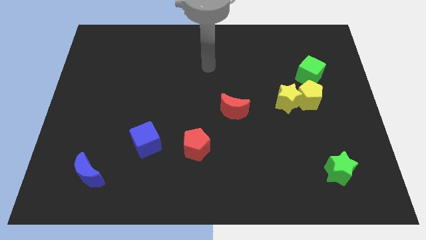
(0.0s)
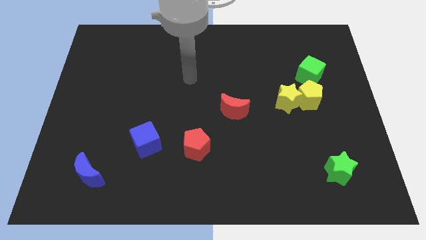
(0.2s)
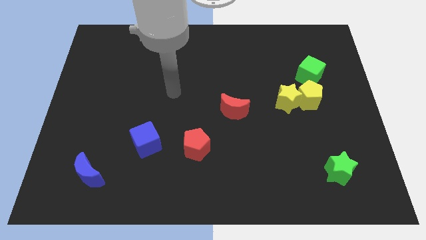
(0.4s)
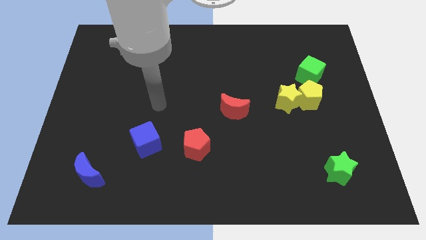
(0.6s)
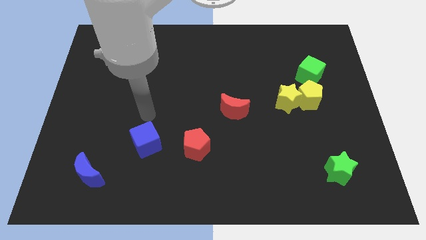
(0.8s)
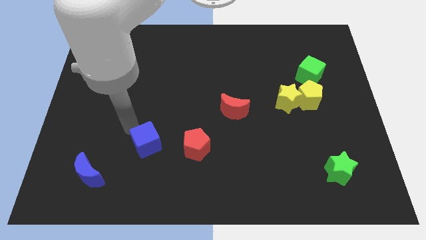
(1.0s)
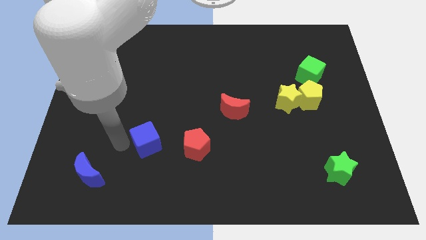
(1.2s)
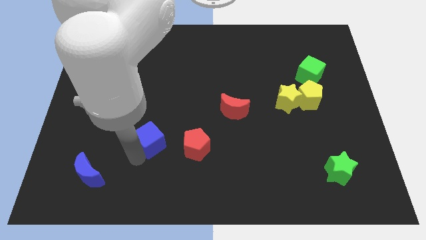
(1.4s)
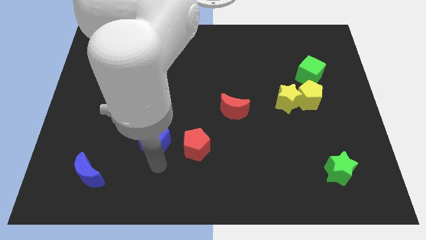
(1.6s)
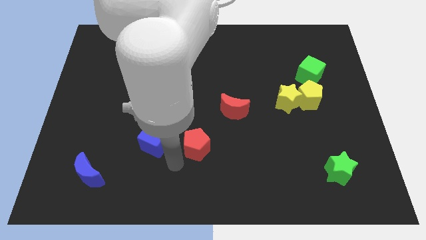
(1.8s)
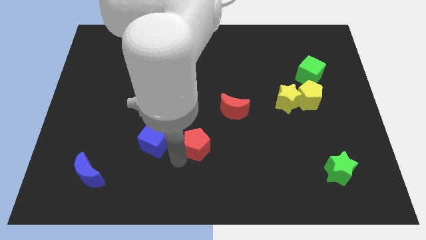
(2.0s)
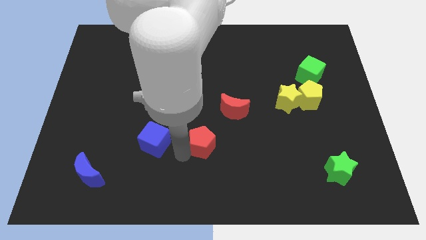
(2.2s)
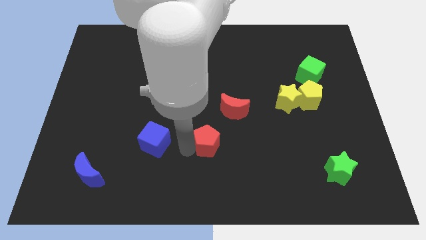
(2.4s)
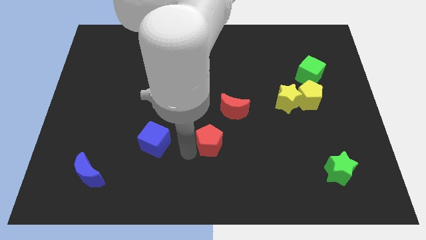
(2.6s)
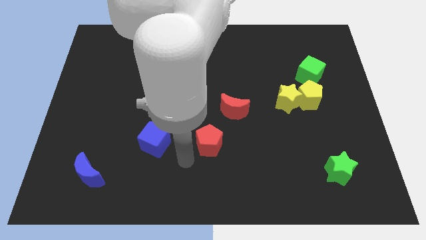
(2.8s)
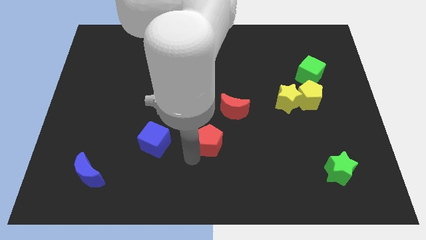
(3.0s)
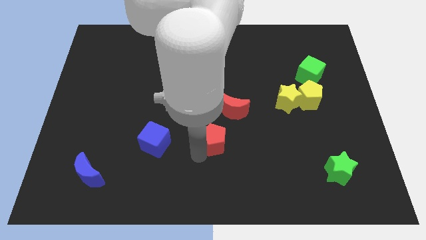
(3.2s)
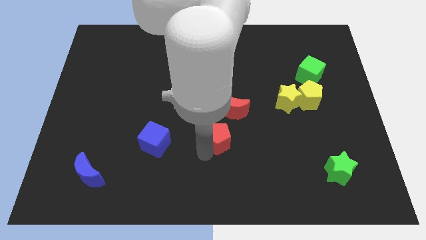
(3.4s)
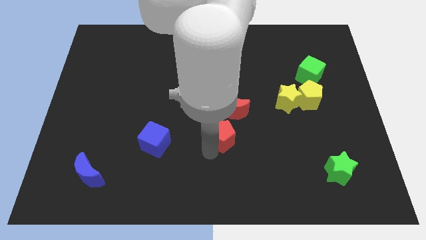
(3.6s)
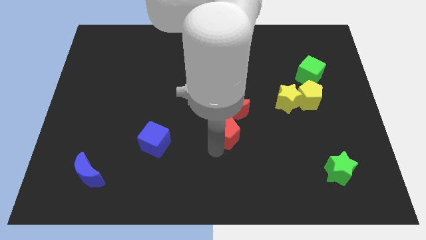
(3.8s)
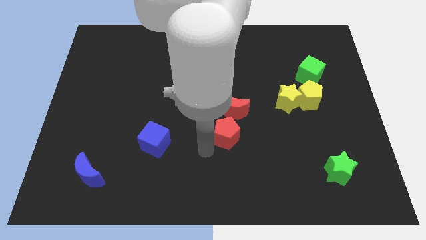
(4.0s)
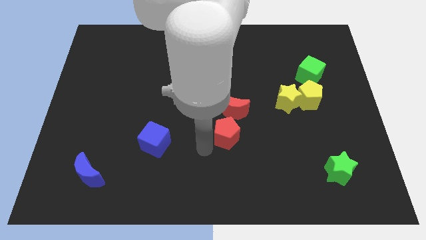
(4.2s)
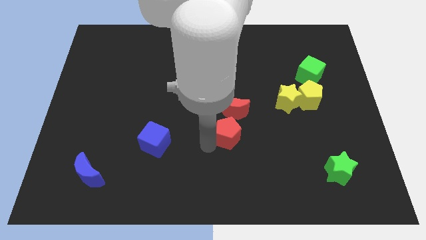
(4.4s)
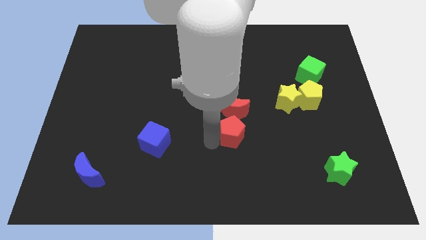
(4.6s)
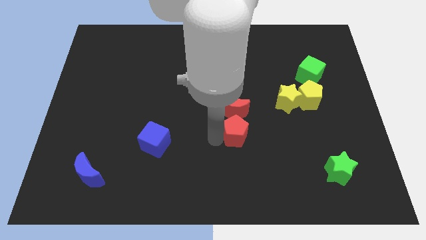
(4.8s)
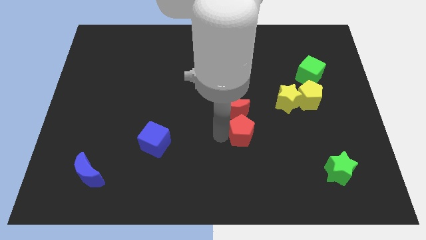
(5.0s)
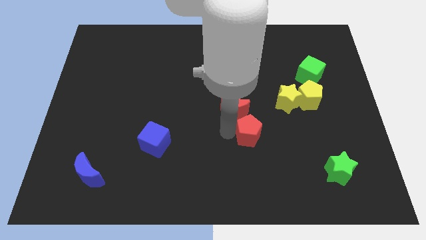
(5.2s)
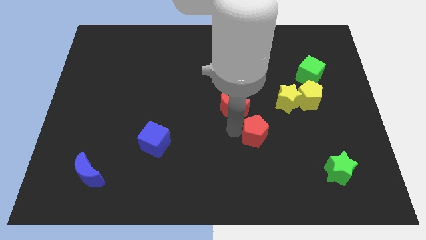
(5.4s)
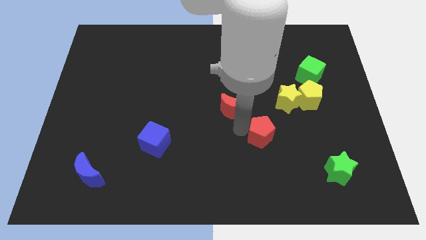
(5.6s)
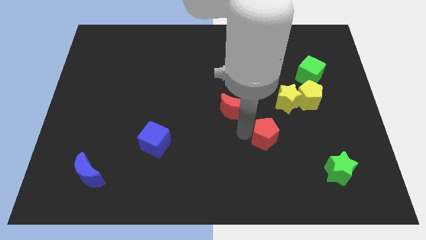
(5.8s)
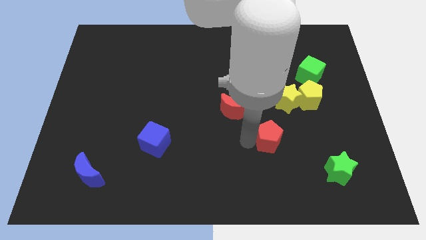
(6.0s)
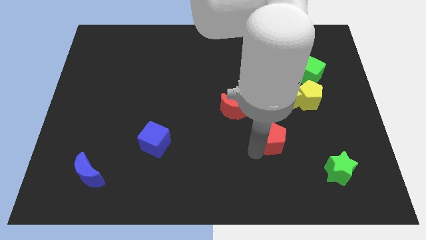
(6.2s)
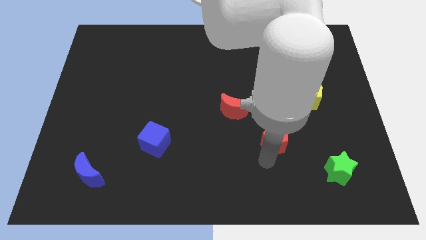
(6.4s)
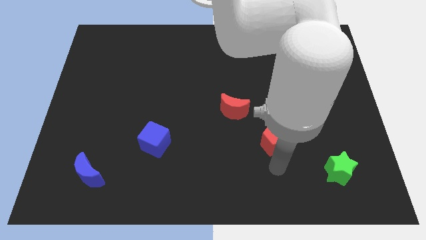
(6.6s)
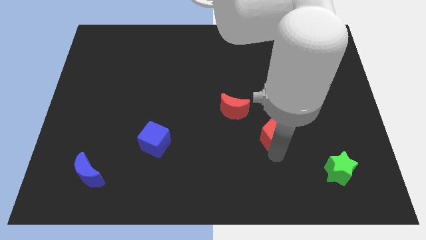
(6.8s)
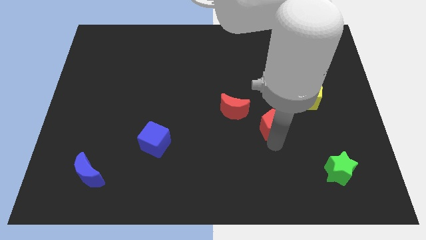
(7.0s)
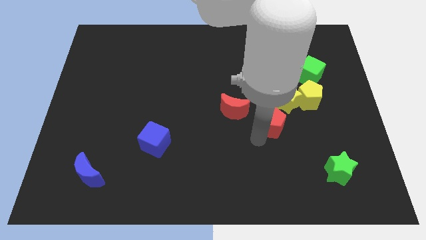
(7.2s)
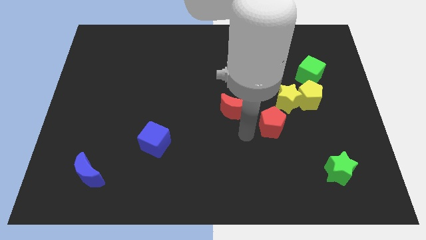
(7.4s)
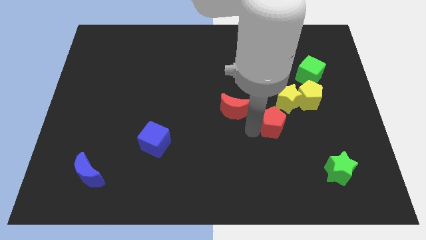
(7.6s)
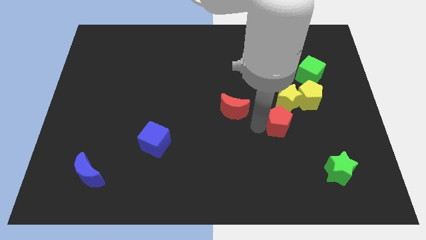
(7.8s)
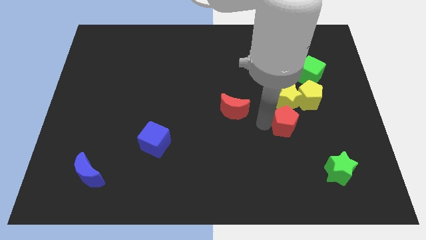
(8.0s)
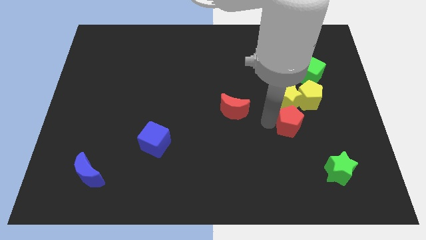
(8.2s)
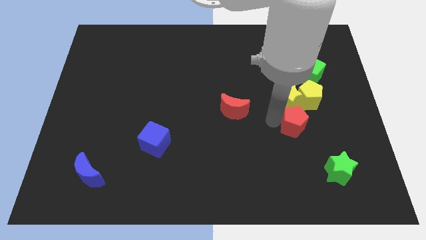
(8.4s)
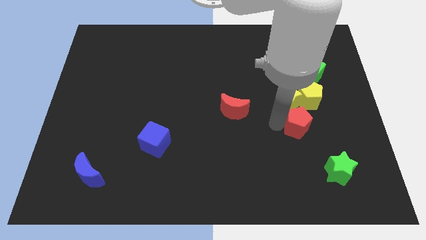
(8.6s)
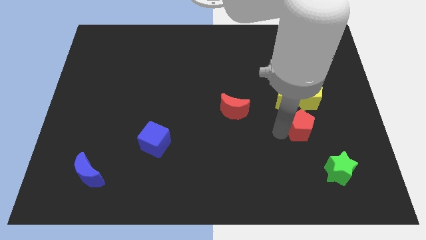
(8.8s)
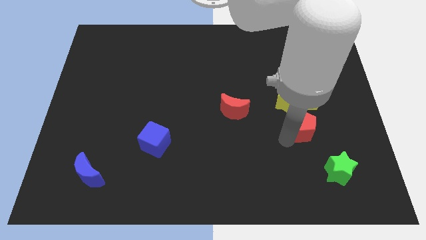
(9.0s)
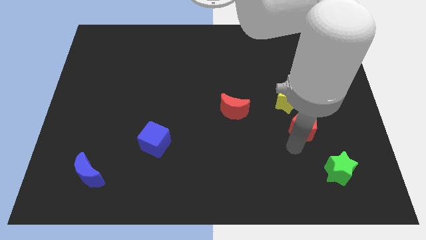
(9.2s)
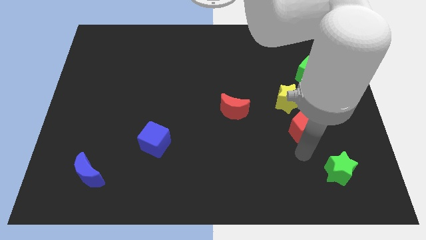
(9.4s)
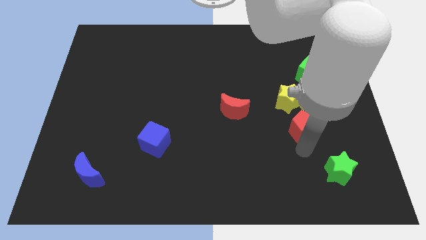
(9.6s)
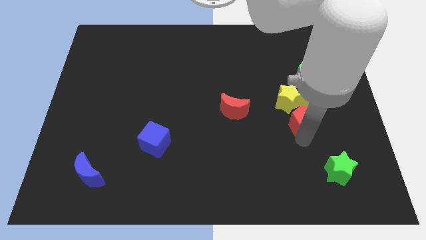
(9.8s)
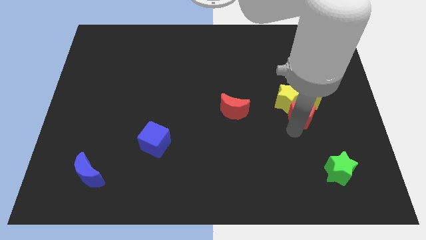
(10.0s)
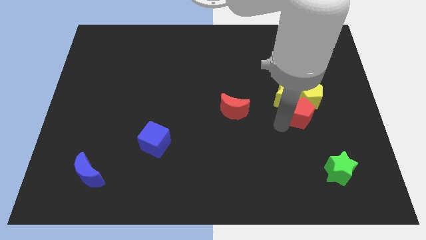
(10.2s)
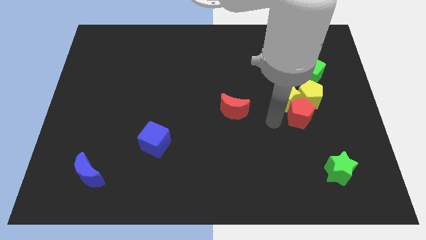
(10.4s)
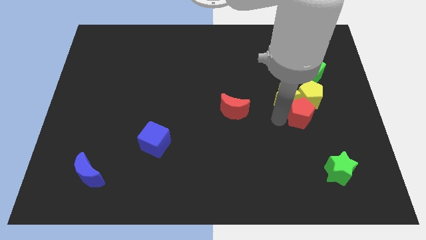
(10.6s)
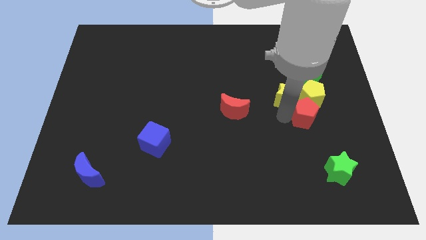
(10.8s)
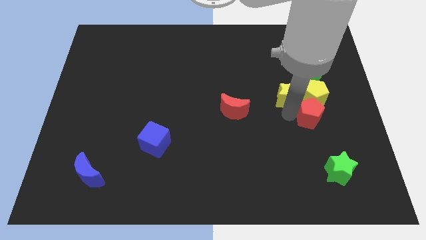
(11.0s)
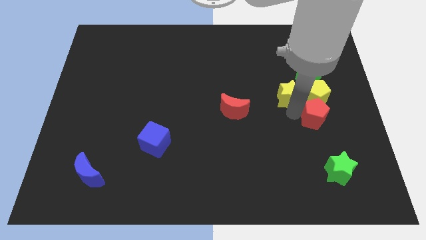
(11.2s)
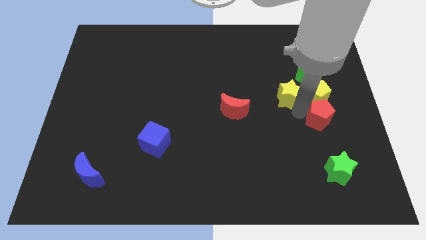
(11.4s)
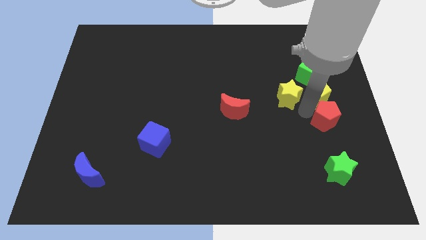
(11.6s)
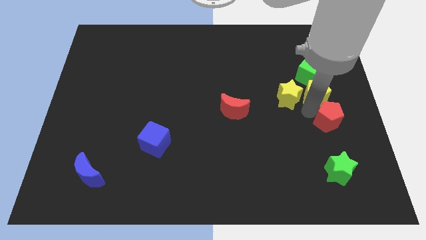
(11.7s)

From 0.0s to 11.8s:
slide the red pentagon to the center right

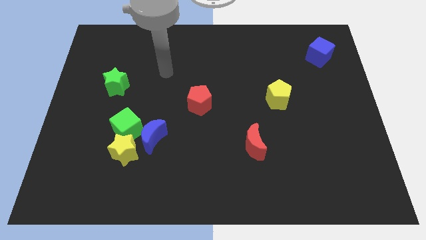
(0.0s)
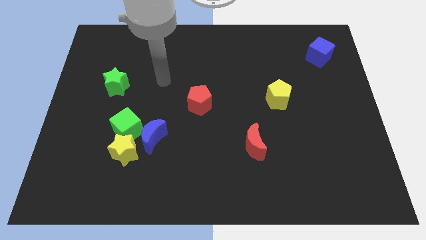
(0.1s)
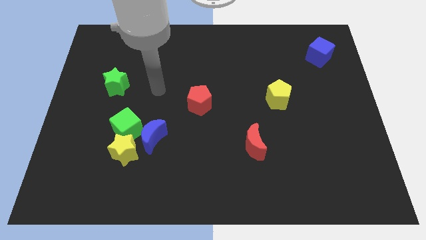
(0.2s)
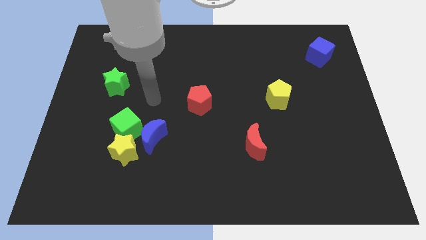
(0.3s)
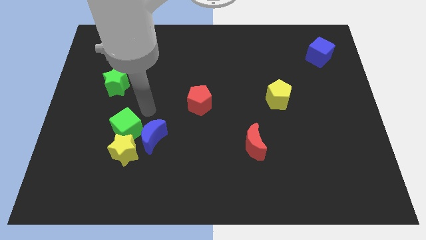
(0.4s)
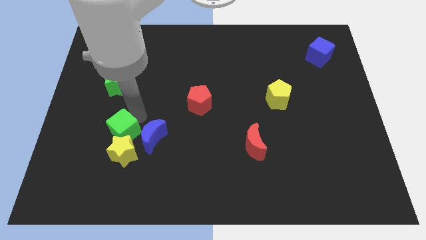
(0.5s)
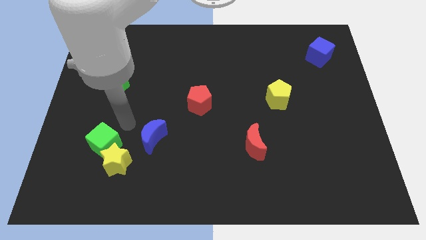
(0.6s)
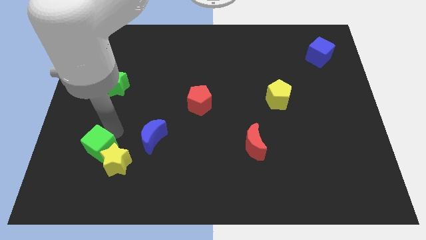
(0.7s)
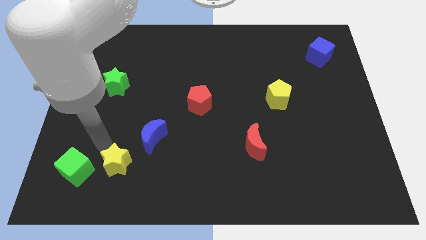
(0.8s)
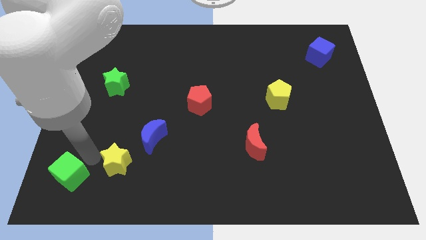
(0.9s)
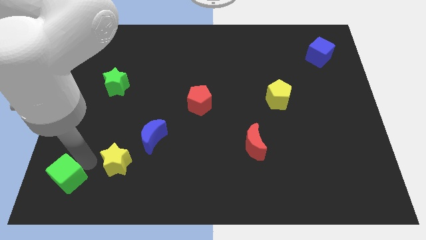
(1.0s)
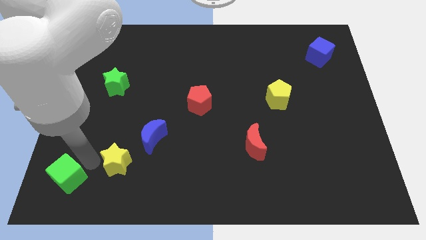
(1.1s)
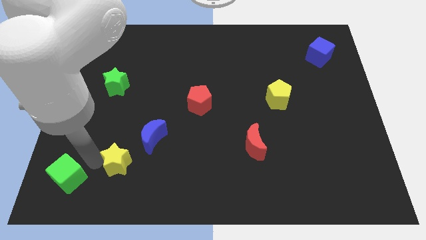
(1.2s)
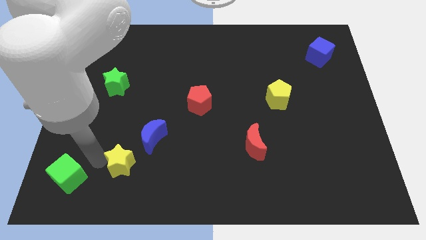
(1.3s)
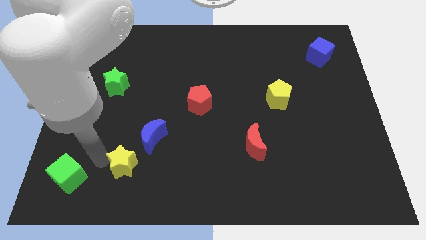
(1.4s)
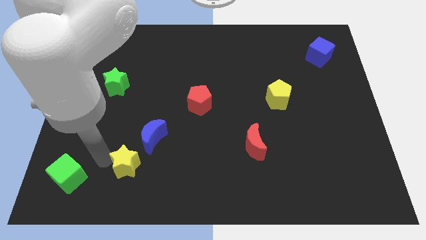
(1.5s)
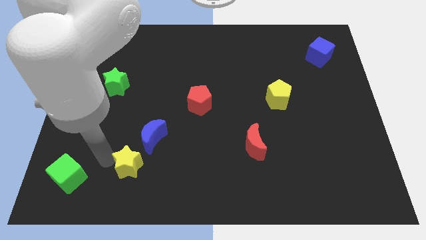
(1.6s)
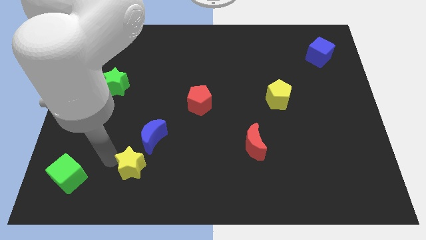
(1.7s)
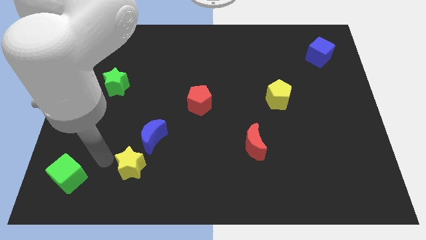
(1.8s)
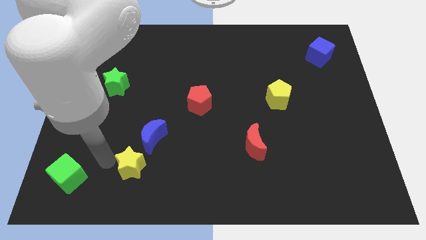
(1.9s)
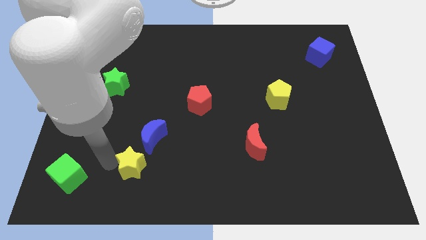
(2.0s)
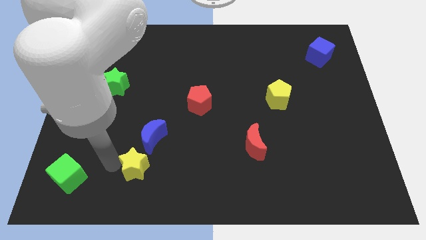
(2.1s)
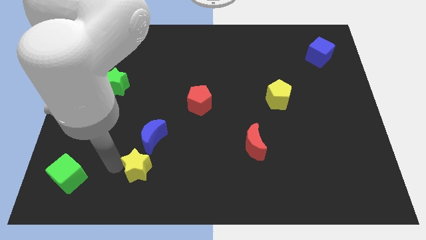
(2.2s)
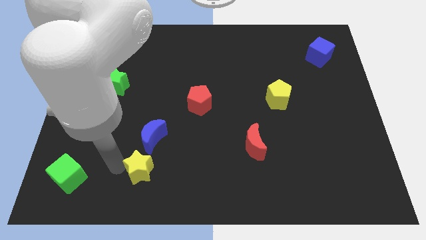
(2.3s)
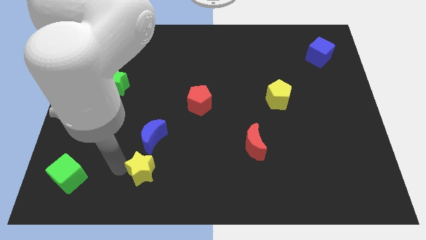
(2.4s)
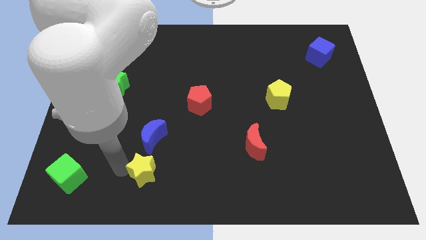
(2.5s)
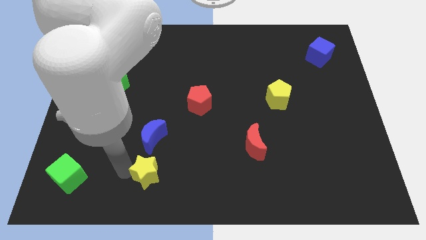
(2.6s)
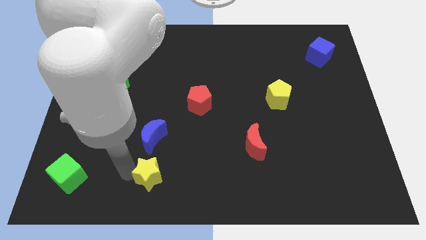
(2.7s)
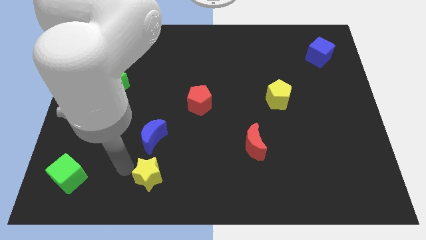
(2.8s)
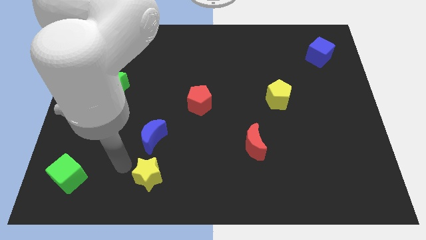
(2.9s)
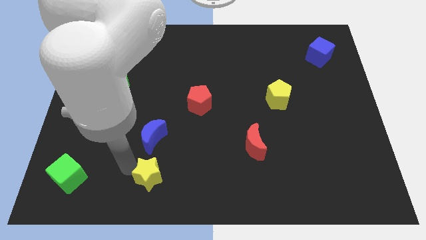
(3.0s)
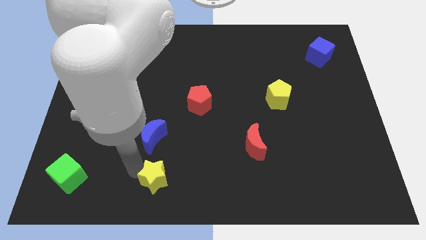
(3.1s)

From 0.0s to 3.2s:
put the yellow star to the bottom
